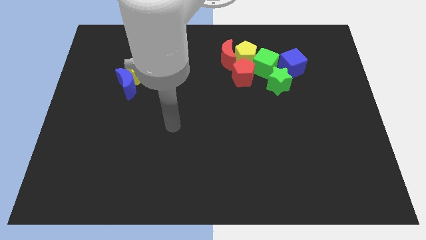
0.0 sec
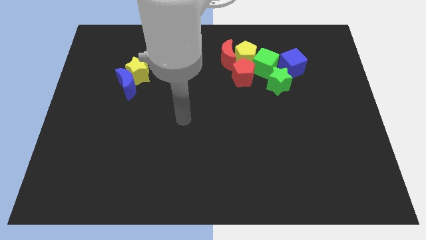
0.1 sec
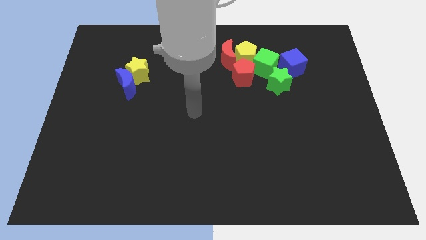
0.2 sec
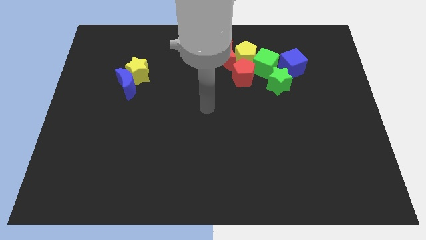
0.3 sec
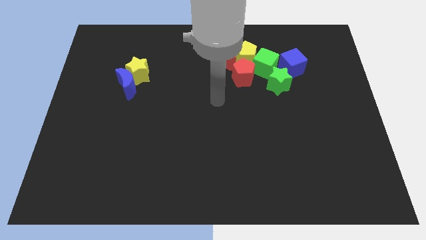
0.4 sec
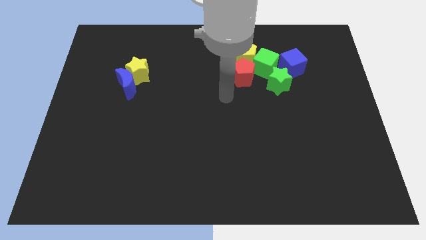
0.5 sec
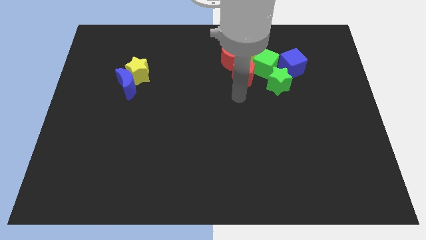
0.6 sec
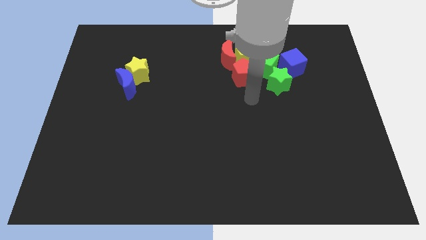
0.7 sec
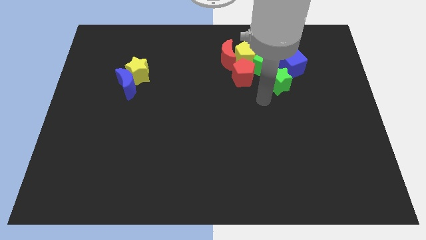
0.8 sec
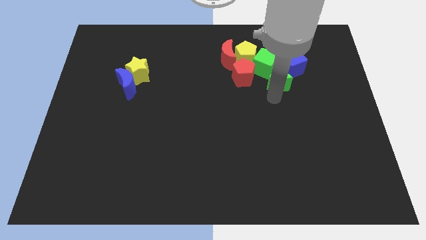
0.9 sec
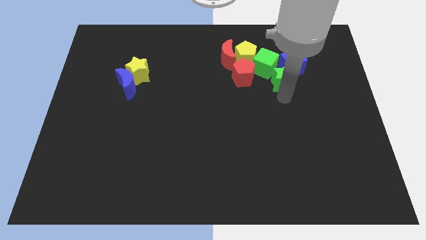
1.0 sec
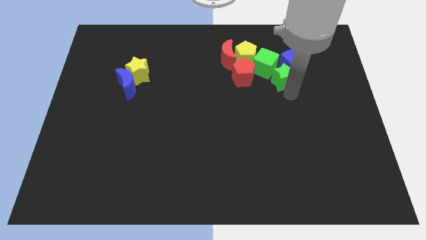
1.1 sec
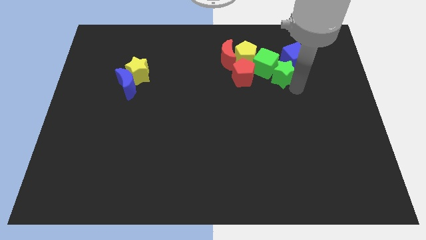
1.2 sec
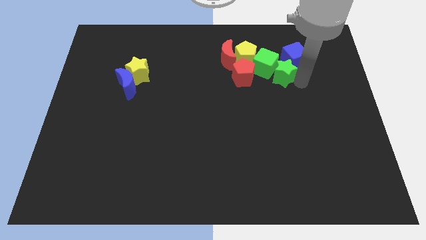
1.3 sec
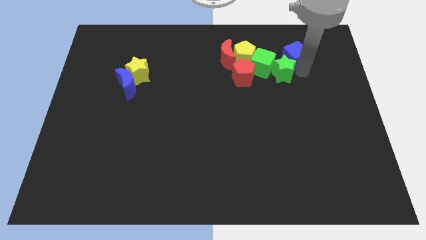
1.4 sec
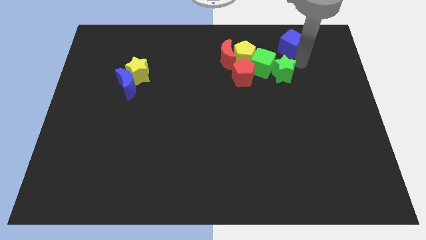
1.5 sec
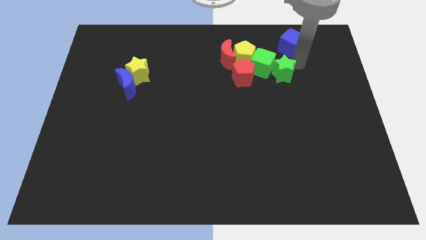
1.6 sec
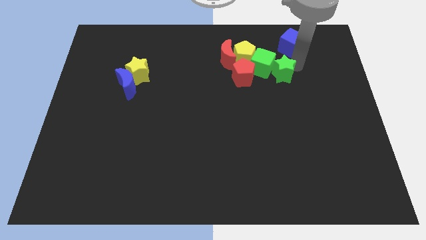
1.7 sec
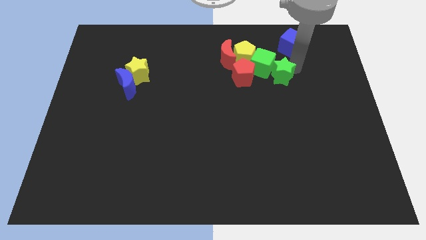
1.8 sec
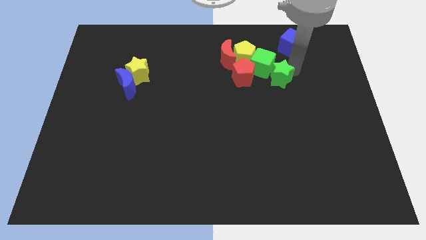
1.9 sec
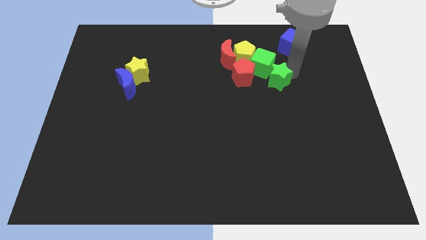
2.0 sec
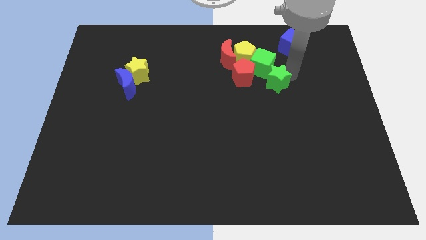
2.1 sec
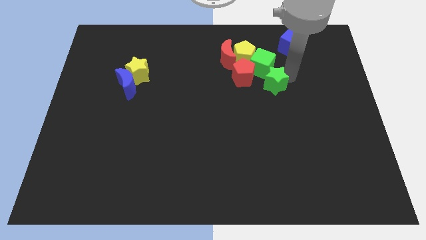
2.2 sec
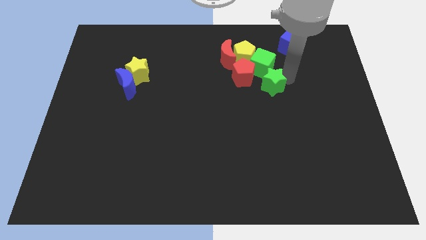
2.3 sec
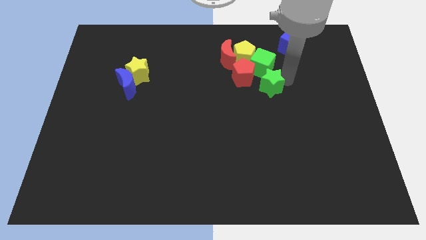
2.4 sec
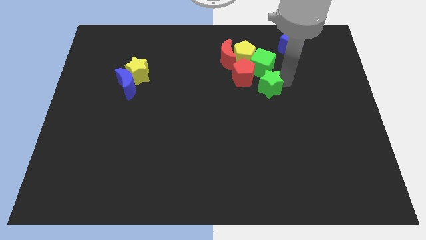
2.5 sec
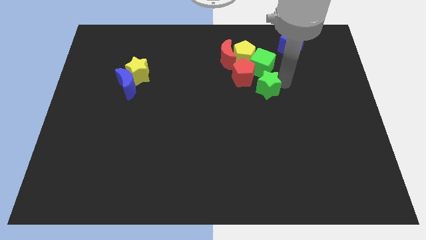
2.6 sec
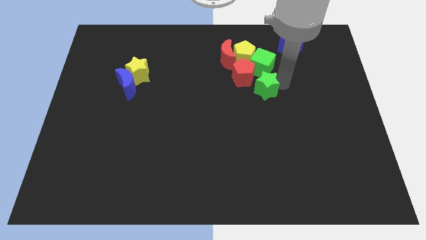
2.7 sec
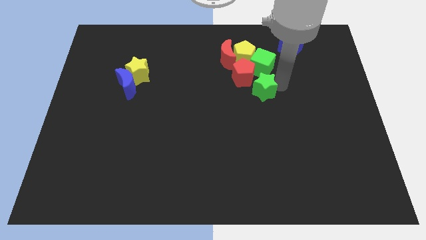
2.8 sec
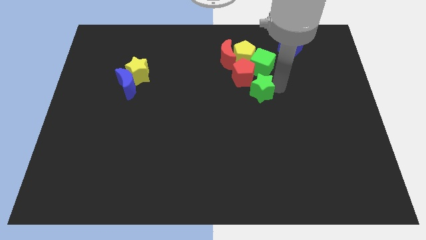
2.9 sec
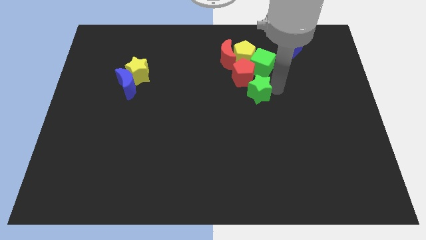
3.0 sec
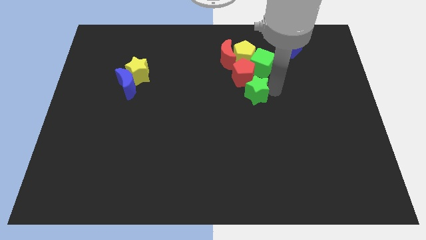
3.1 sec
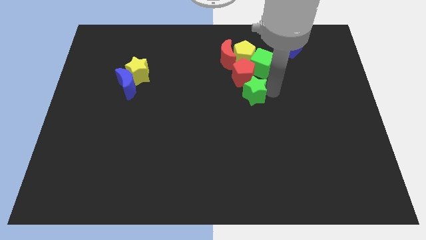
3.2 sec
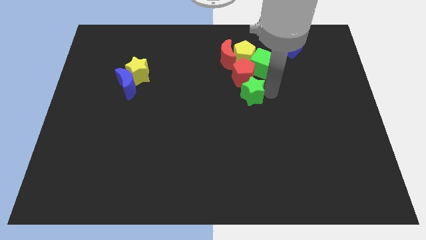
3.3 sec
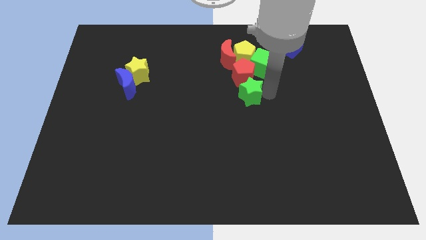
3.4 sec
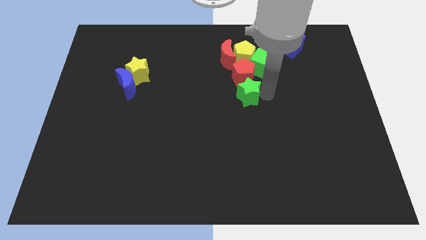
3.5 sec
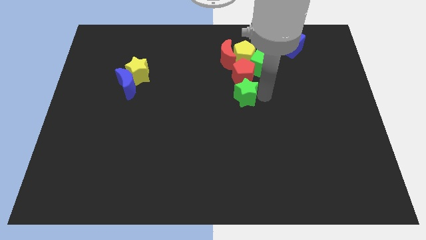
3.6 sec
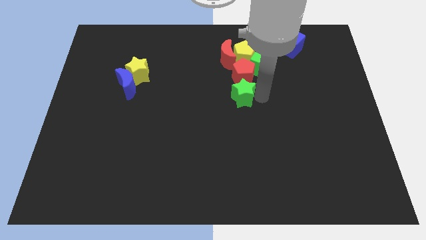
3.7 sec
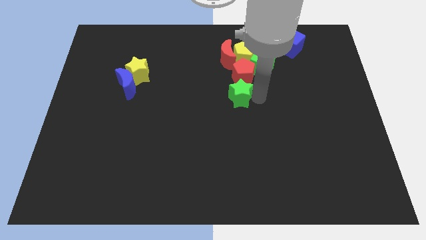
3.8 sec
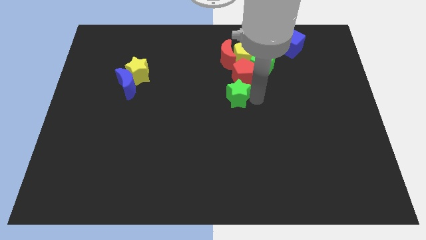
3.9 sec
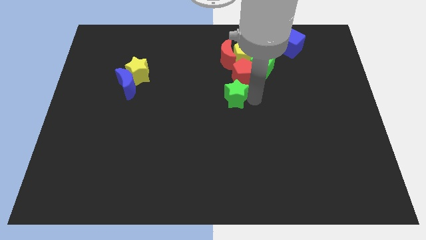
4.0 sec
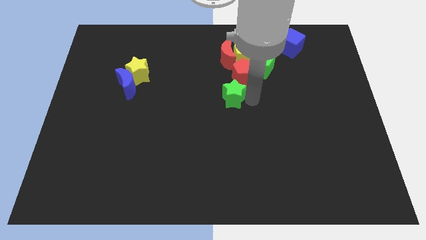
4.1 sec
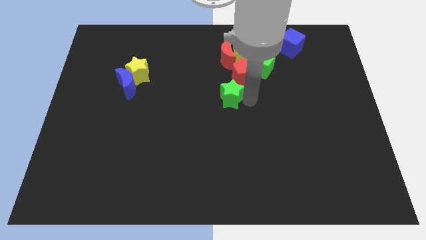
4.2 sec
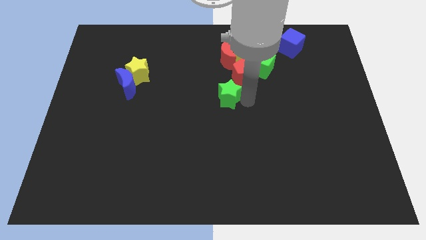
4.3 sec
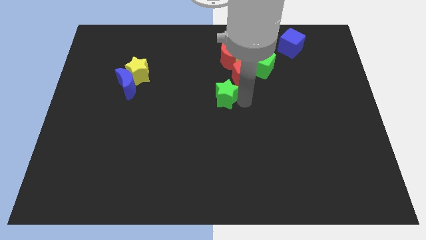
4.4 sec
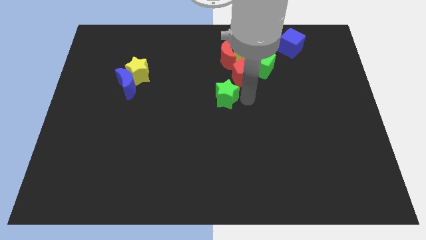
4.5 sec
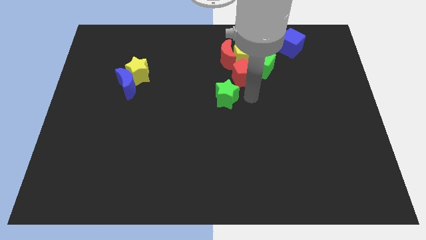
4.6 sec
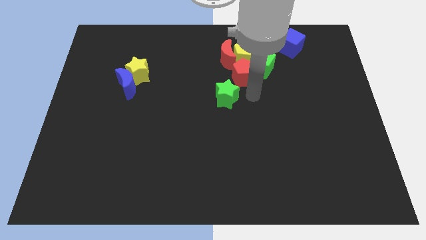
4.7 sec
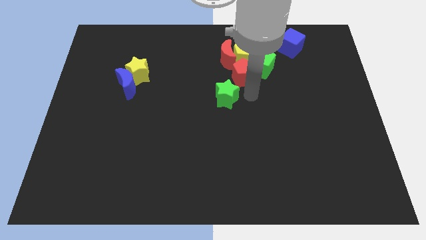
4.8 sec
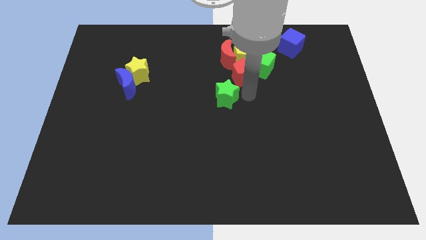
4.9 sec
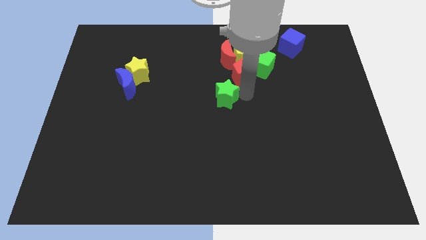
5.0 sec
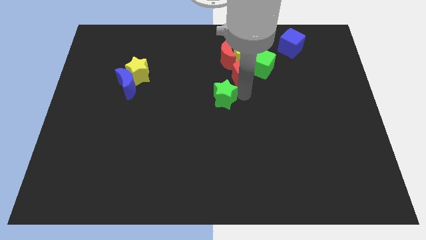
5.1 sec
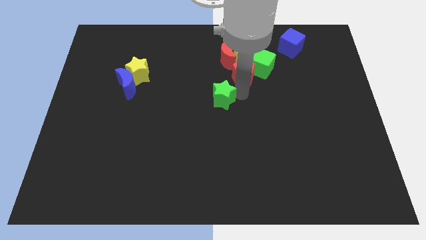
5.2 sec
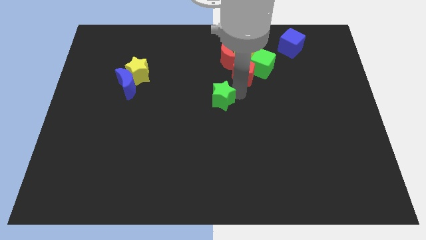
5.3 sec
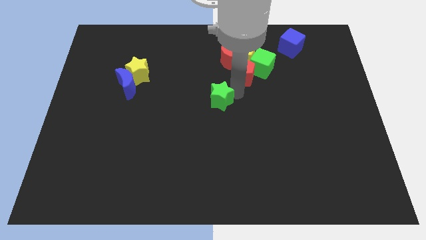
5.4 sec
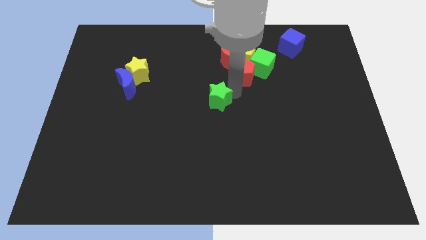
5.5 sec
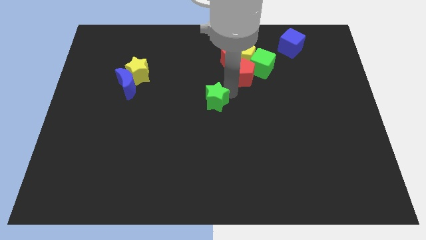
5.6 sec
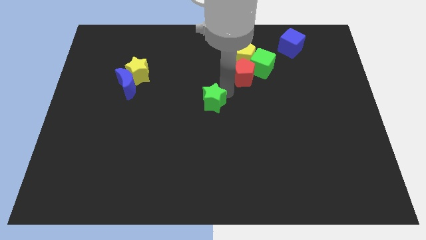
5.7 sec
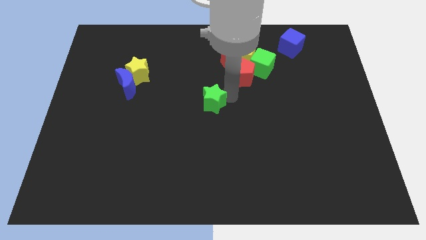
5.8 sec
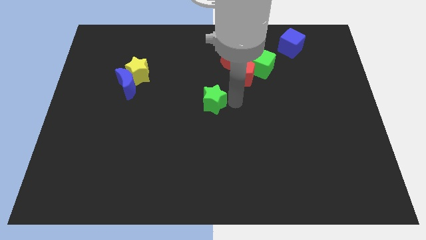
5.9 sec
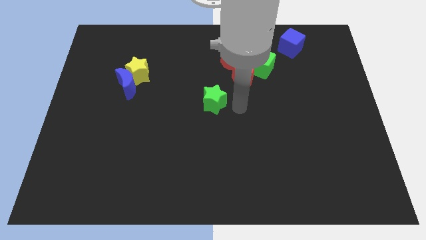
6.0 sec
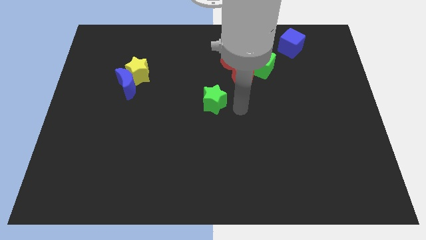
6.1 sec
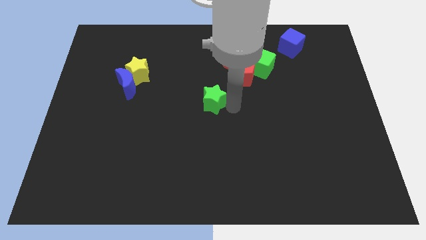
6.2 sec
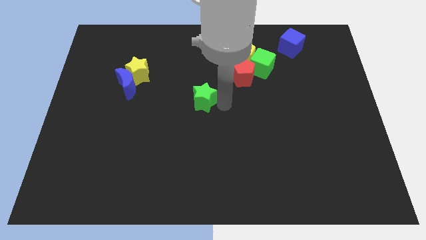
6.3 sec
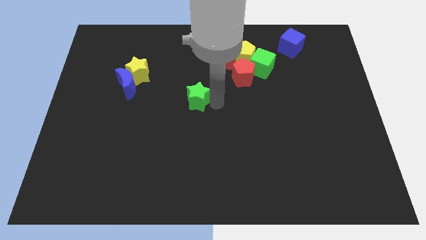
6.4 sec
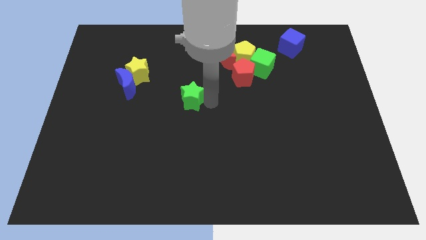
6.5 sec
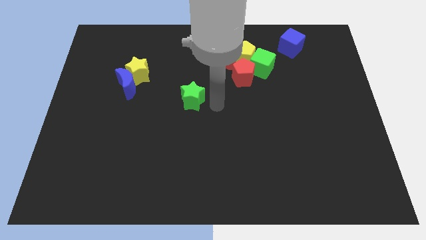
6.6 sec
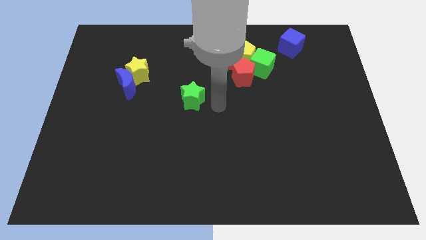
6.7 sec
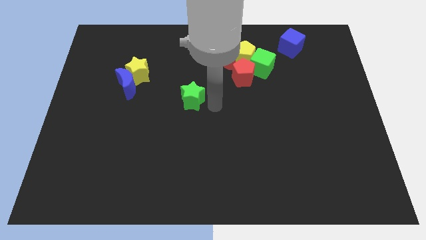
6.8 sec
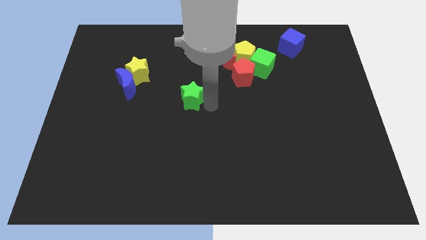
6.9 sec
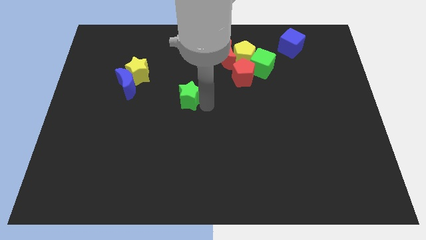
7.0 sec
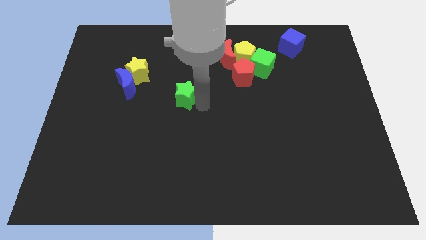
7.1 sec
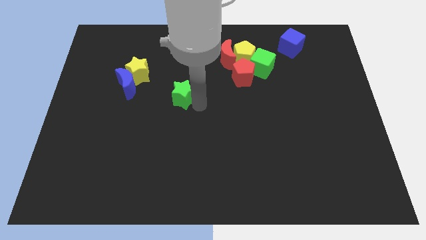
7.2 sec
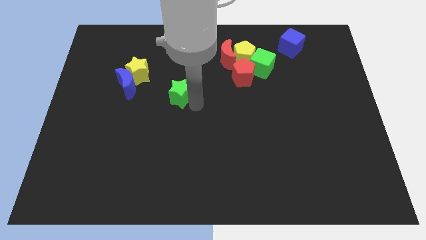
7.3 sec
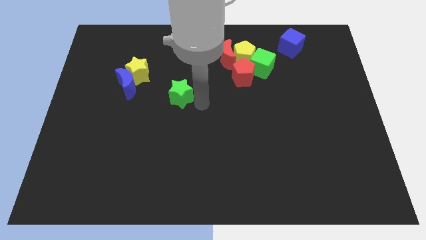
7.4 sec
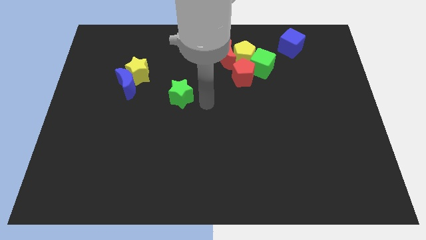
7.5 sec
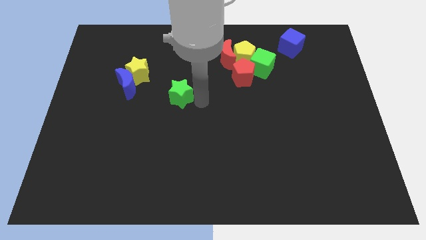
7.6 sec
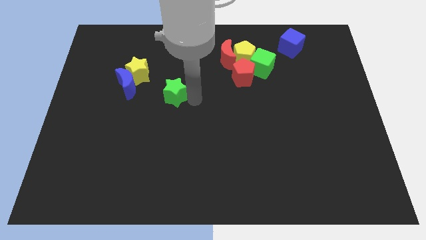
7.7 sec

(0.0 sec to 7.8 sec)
put the green star diagonally down and to the right of the yellow star

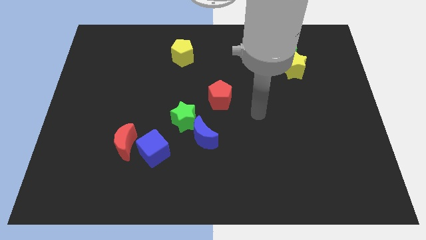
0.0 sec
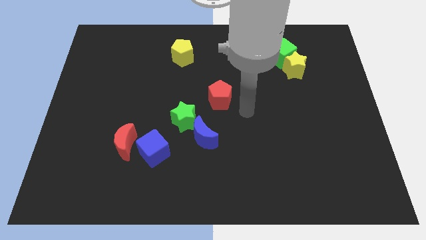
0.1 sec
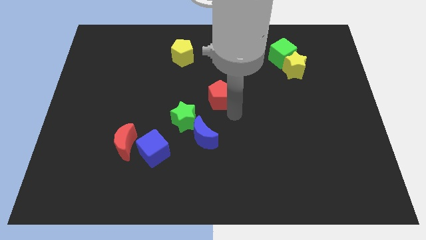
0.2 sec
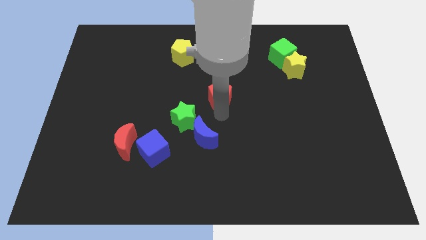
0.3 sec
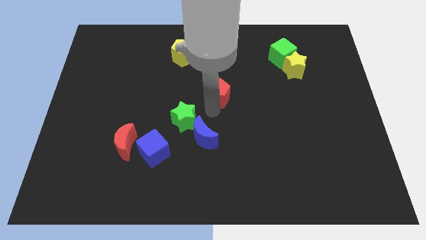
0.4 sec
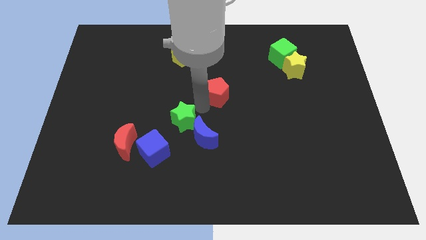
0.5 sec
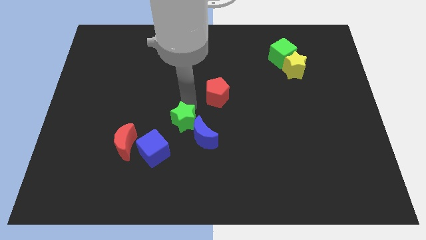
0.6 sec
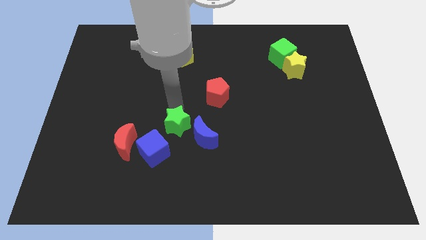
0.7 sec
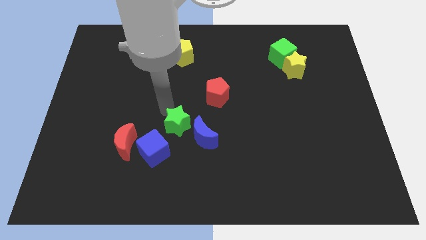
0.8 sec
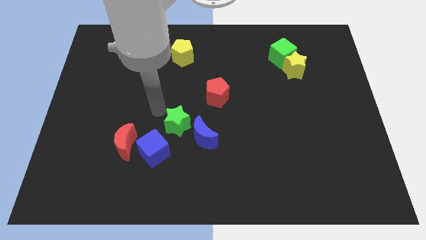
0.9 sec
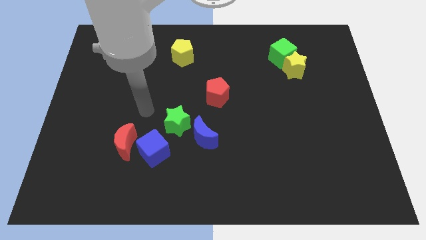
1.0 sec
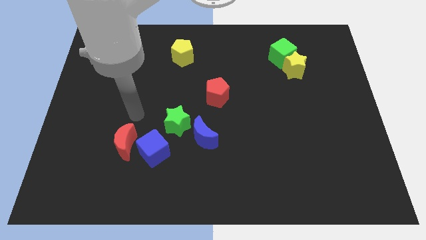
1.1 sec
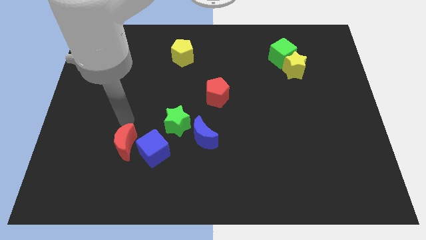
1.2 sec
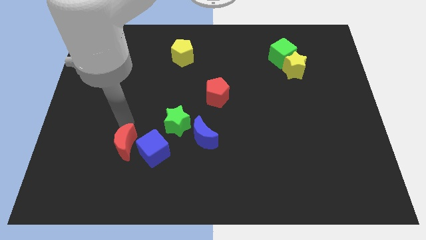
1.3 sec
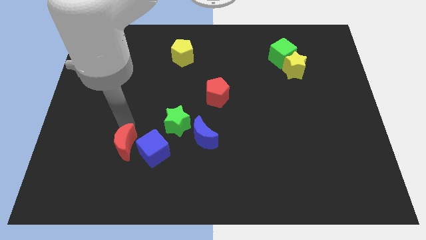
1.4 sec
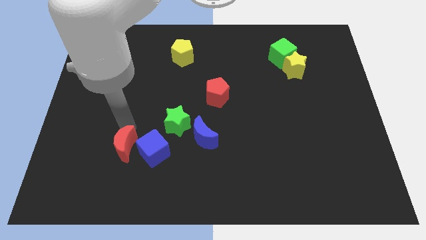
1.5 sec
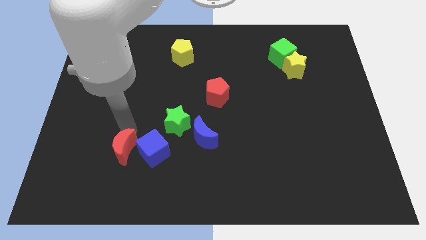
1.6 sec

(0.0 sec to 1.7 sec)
put the red moon diagonally down and to the left of the blue cube
